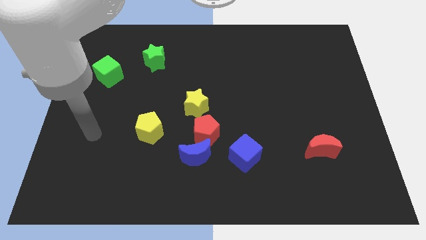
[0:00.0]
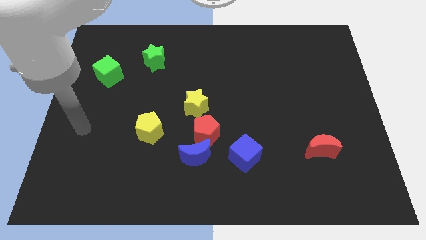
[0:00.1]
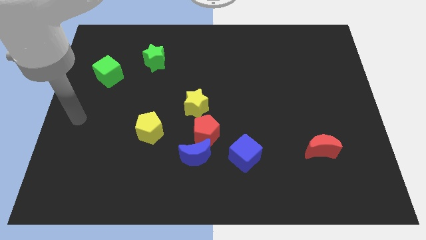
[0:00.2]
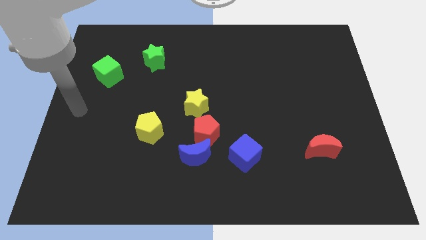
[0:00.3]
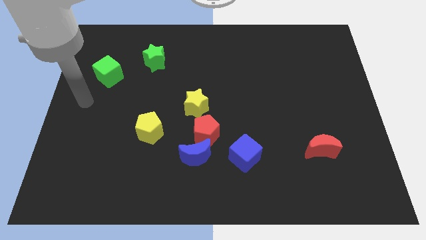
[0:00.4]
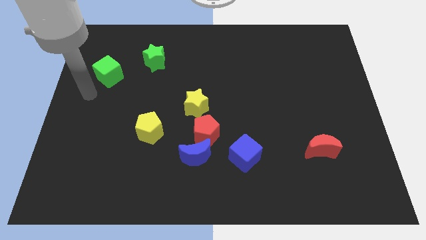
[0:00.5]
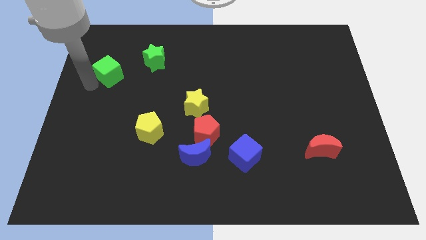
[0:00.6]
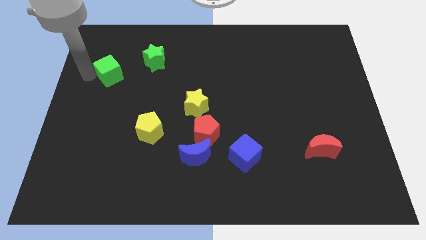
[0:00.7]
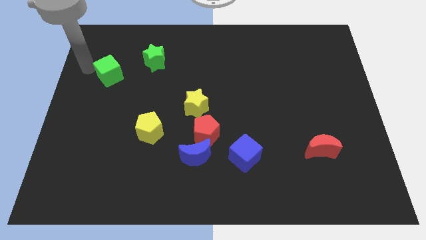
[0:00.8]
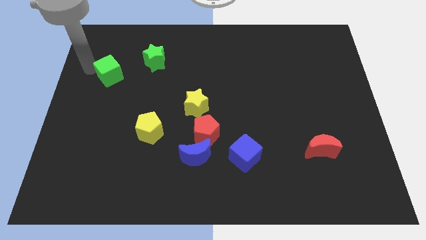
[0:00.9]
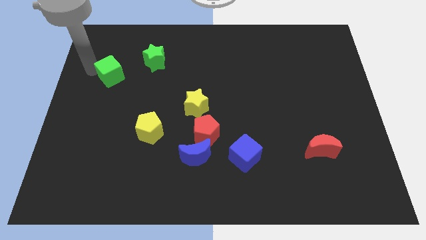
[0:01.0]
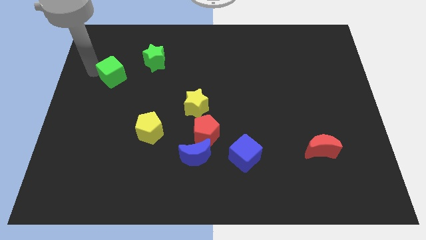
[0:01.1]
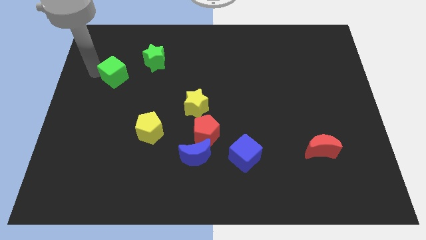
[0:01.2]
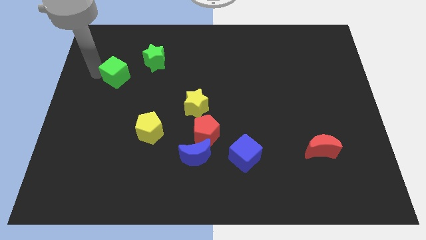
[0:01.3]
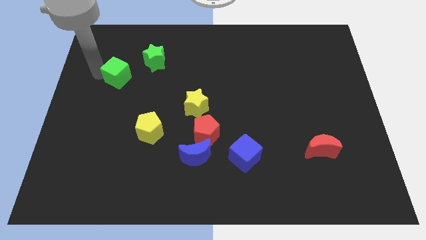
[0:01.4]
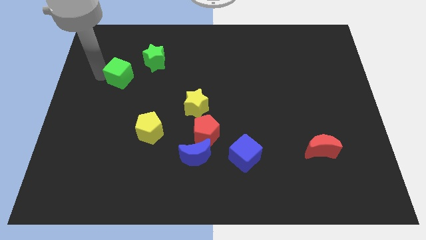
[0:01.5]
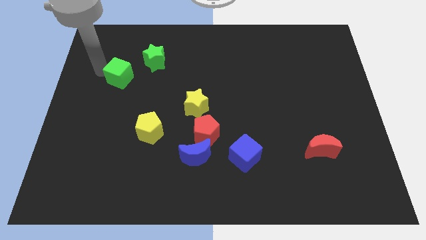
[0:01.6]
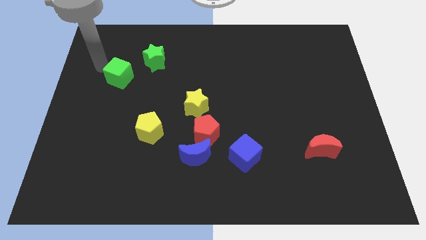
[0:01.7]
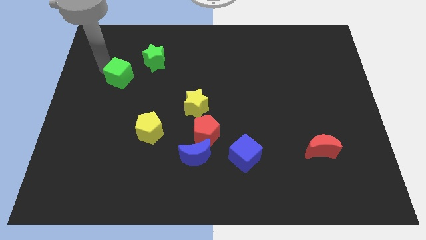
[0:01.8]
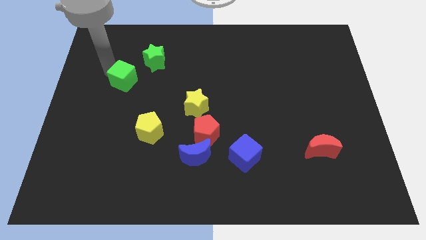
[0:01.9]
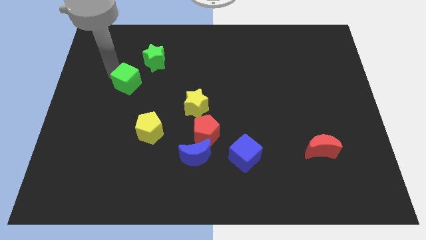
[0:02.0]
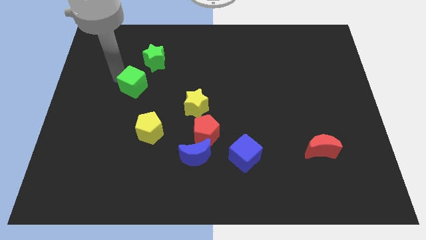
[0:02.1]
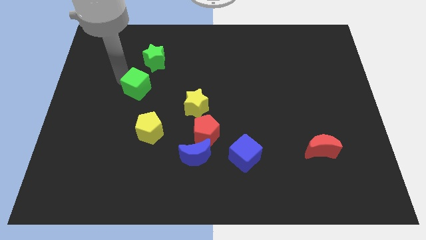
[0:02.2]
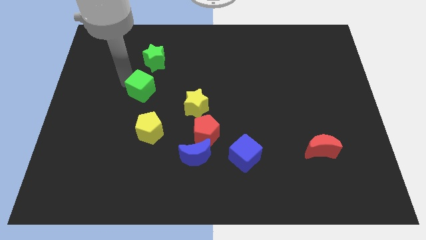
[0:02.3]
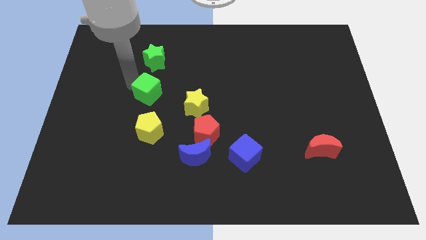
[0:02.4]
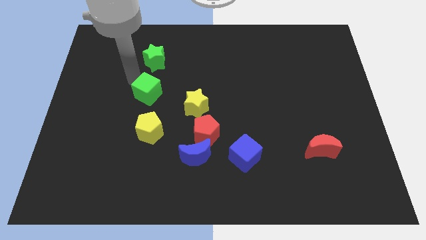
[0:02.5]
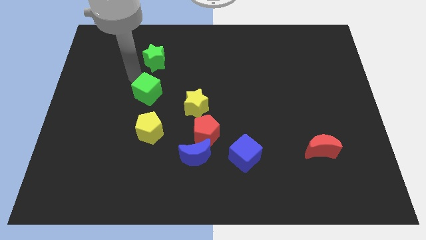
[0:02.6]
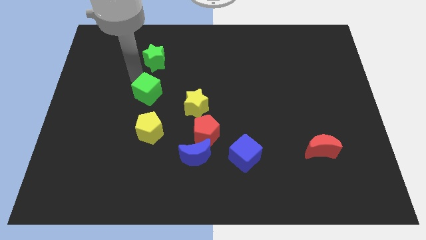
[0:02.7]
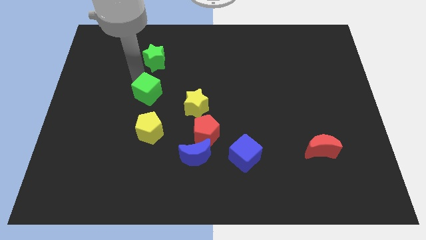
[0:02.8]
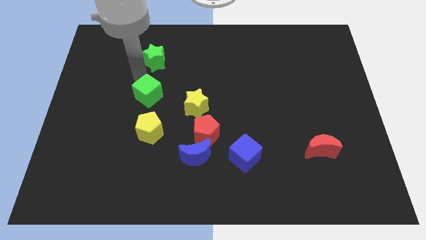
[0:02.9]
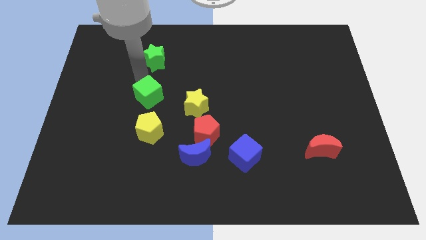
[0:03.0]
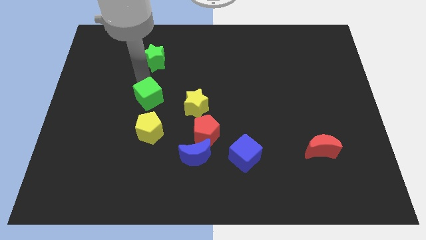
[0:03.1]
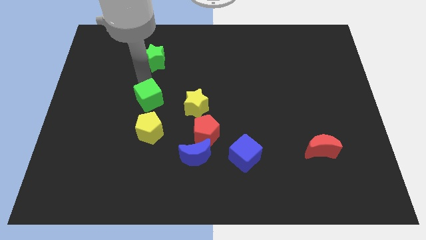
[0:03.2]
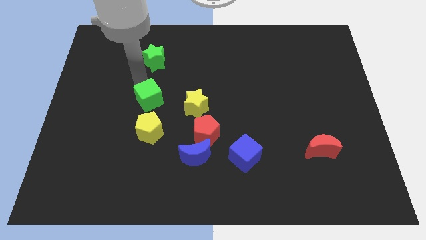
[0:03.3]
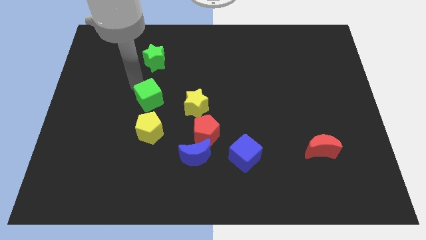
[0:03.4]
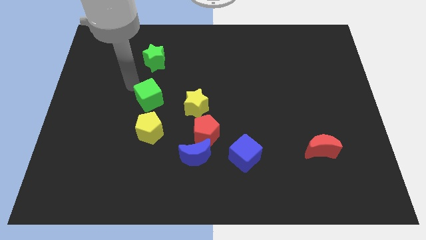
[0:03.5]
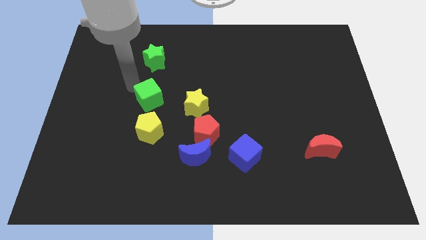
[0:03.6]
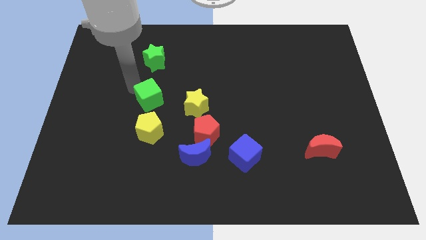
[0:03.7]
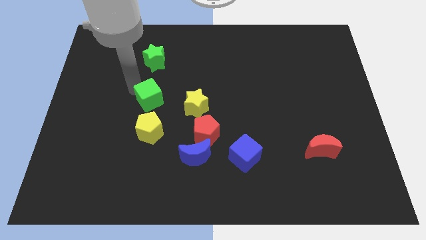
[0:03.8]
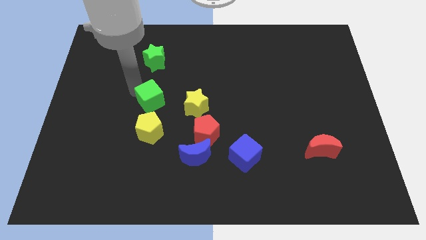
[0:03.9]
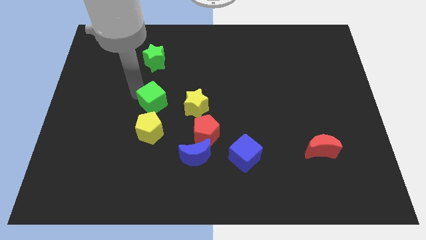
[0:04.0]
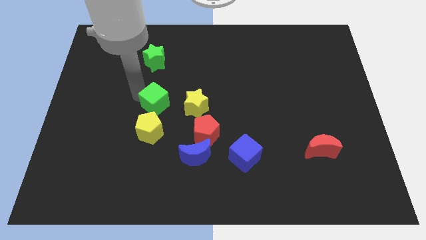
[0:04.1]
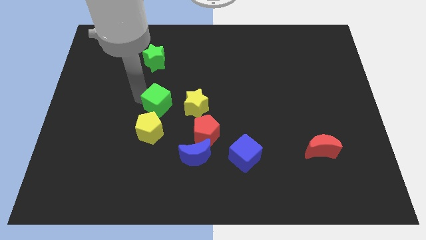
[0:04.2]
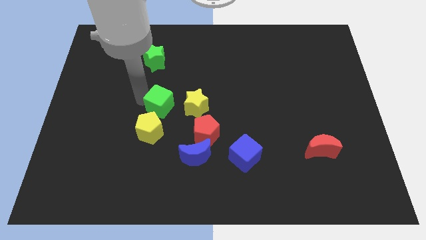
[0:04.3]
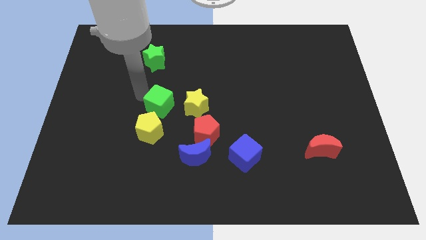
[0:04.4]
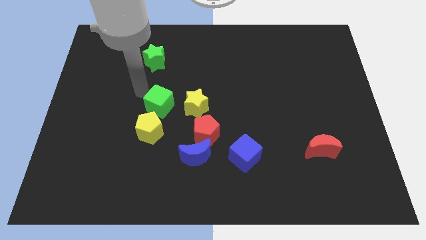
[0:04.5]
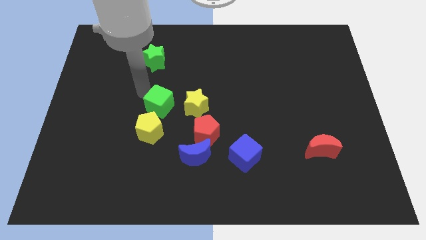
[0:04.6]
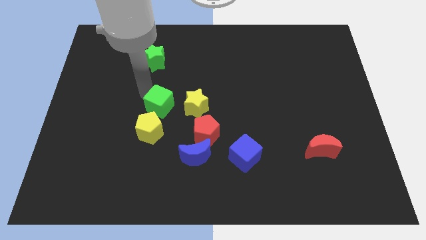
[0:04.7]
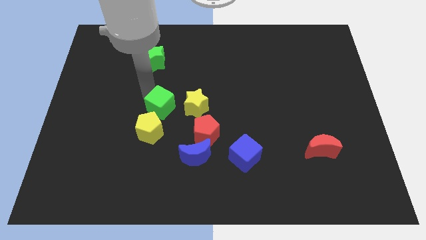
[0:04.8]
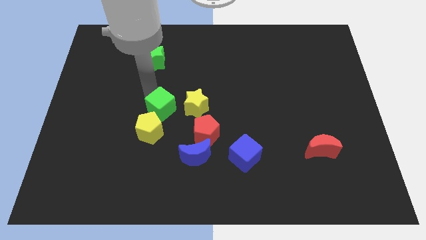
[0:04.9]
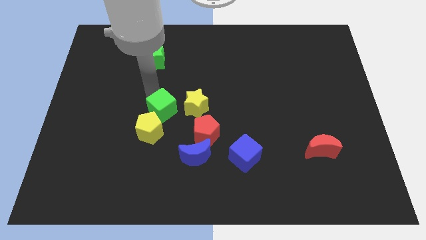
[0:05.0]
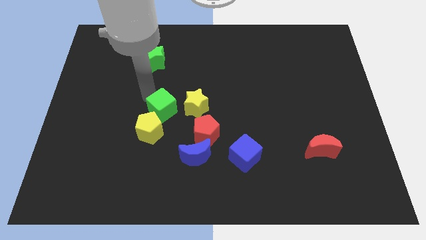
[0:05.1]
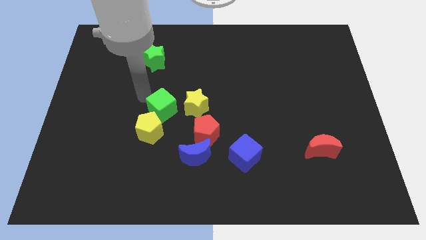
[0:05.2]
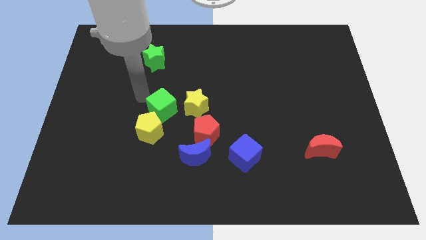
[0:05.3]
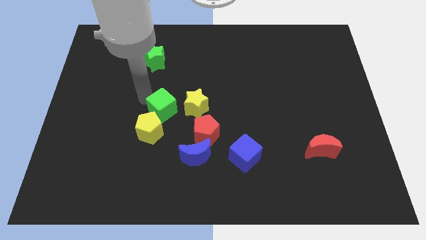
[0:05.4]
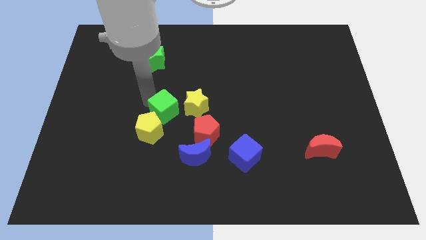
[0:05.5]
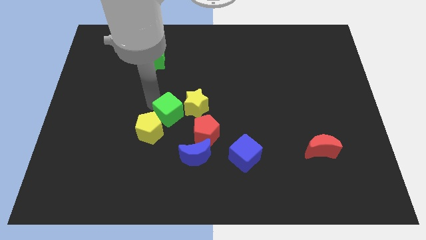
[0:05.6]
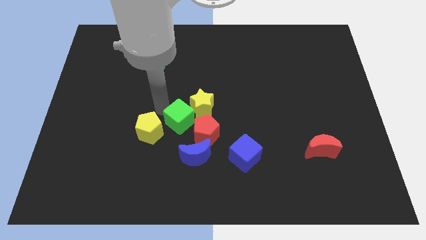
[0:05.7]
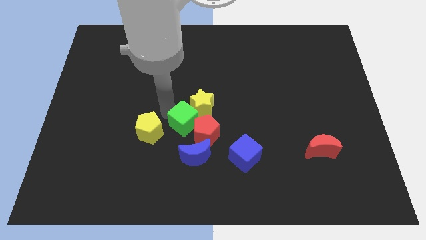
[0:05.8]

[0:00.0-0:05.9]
move the green cube towards the red pentagon

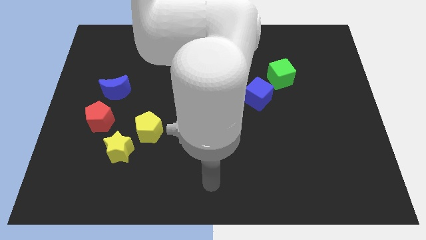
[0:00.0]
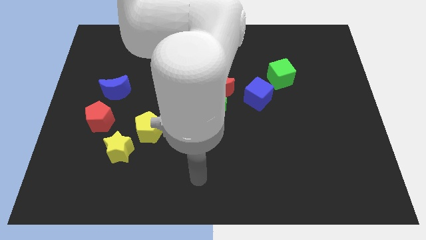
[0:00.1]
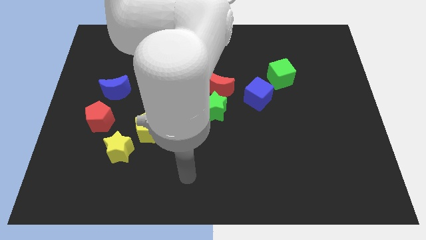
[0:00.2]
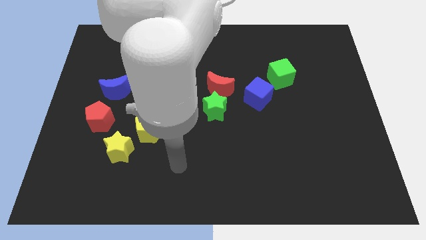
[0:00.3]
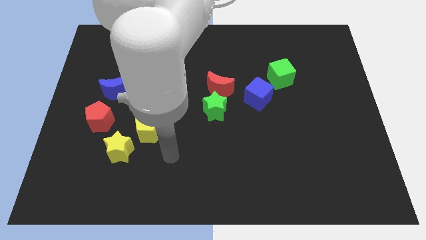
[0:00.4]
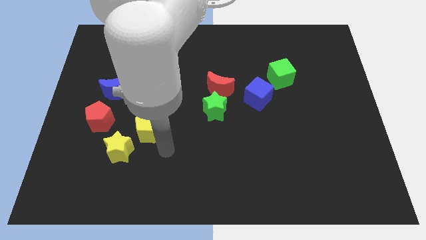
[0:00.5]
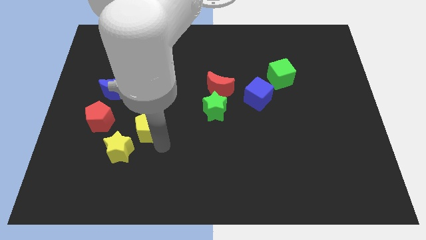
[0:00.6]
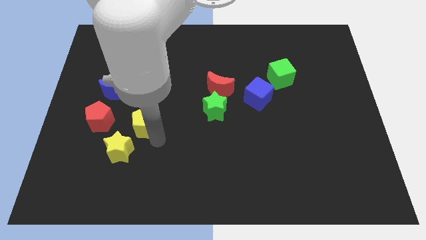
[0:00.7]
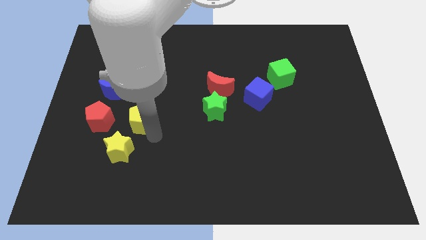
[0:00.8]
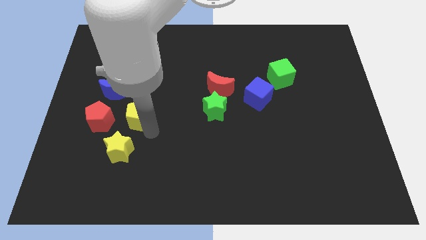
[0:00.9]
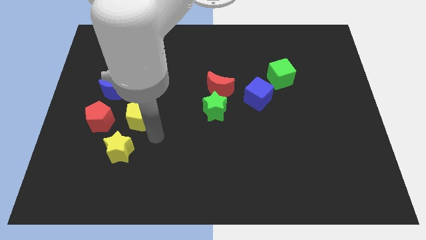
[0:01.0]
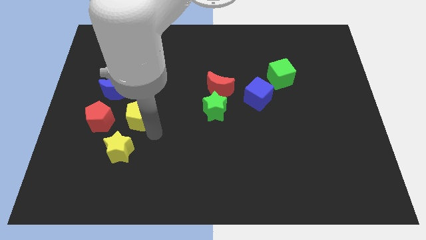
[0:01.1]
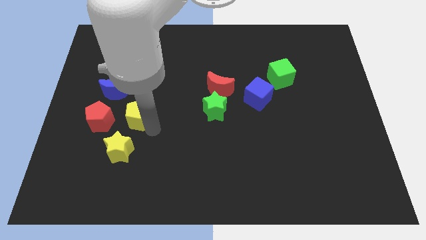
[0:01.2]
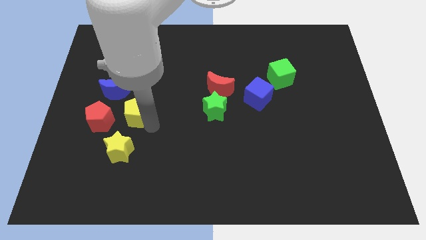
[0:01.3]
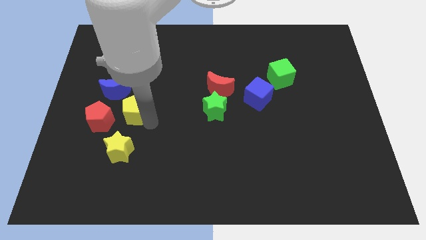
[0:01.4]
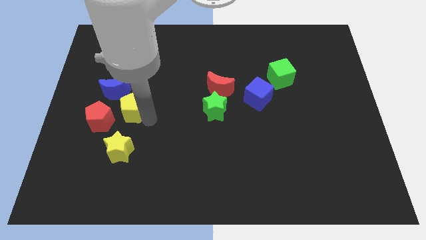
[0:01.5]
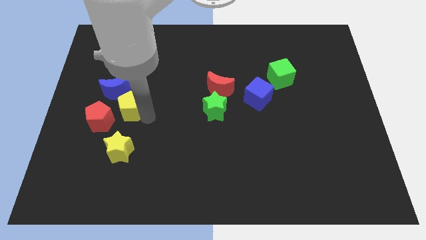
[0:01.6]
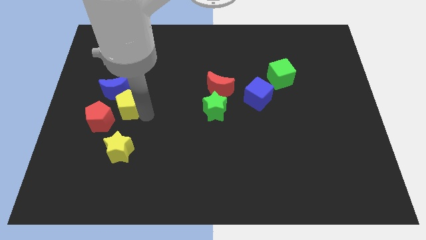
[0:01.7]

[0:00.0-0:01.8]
push the yellow pentagon next to the blue moon
